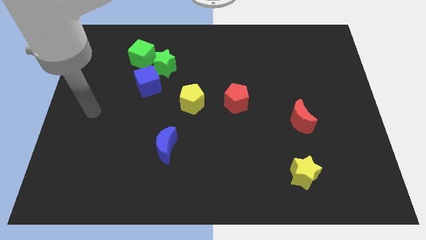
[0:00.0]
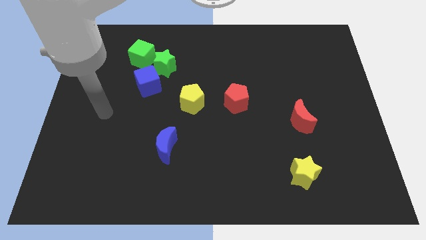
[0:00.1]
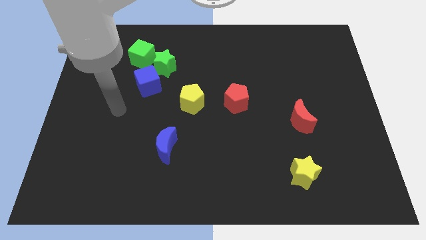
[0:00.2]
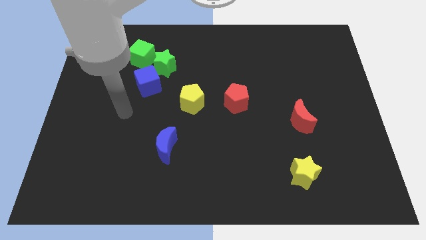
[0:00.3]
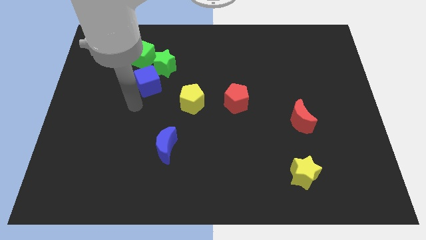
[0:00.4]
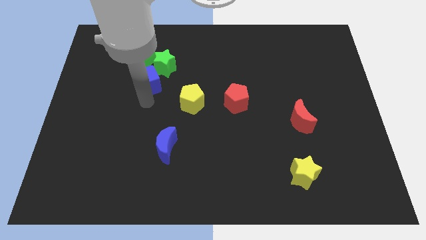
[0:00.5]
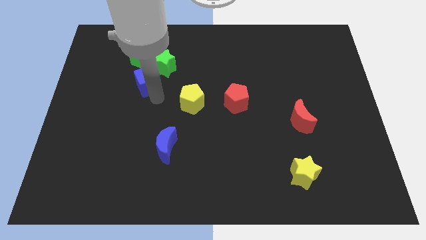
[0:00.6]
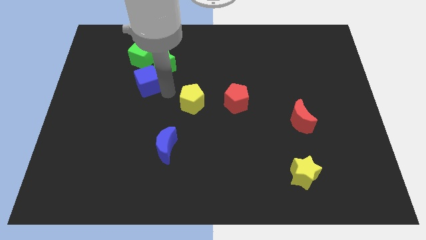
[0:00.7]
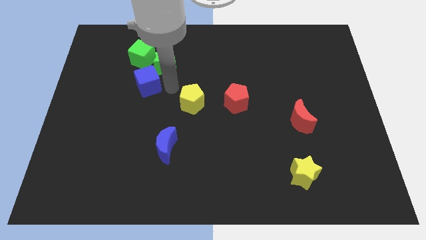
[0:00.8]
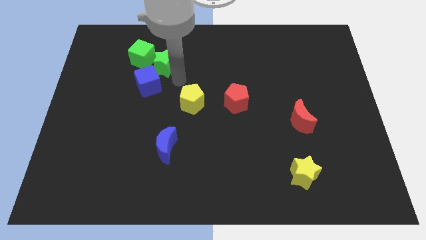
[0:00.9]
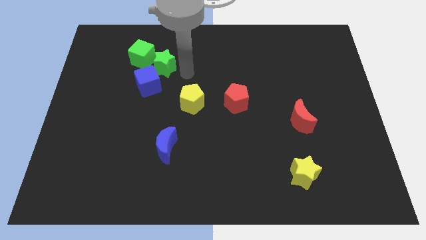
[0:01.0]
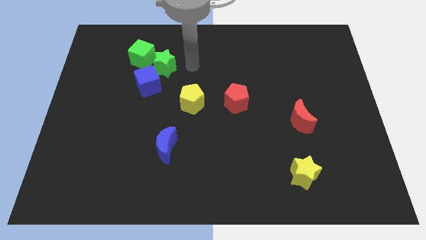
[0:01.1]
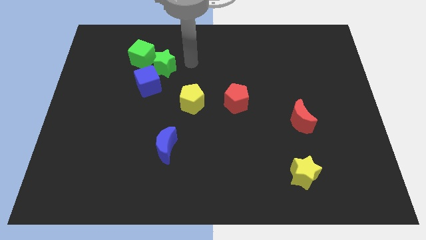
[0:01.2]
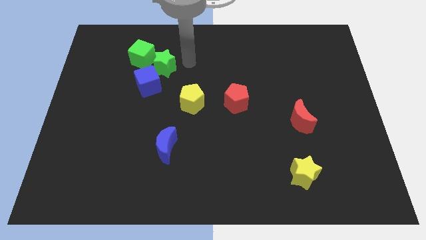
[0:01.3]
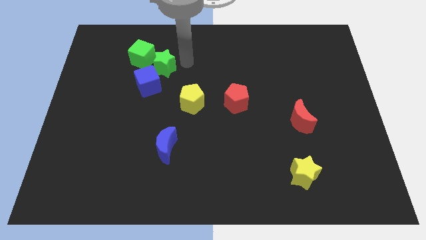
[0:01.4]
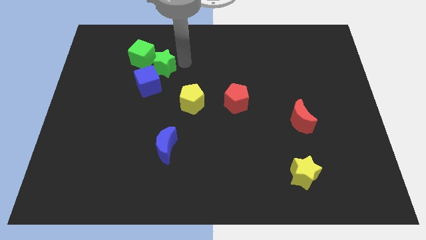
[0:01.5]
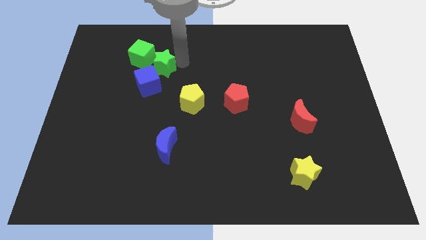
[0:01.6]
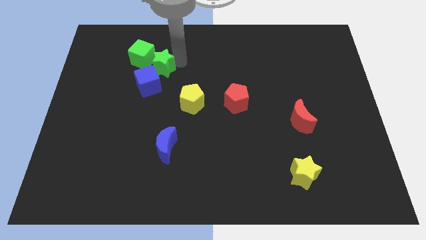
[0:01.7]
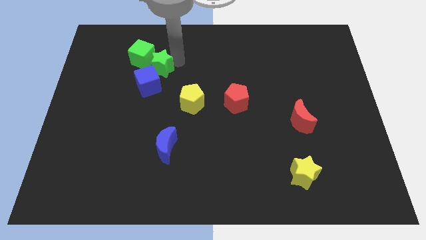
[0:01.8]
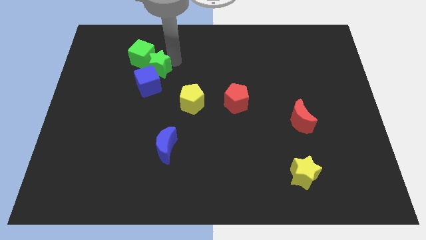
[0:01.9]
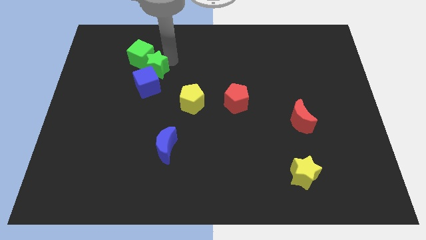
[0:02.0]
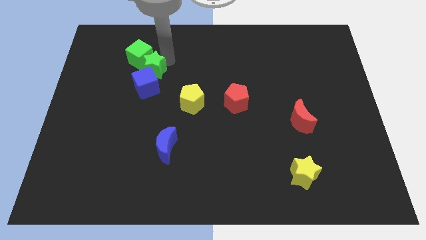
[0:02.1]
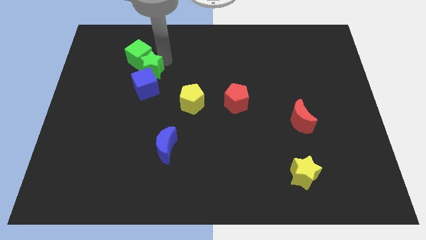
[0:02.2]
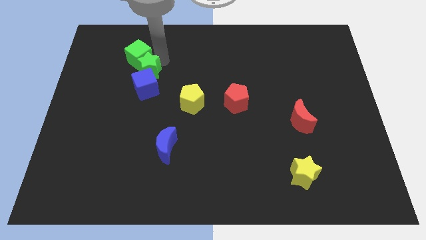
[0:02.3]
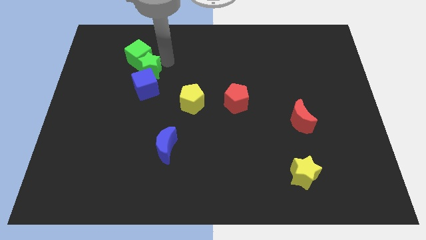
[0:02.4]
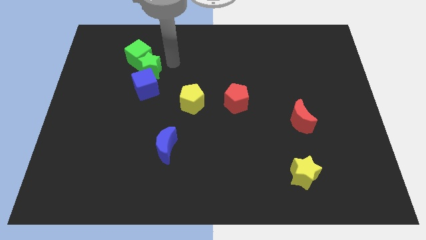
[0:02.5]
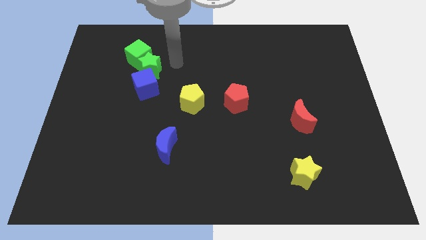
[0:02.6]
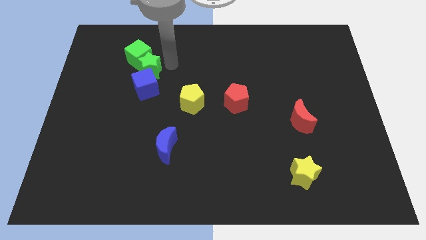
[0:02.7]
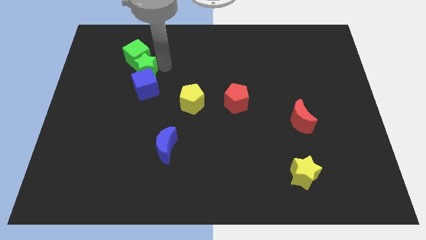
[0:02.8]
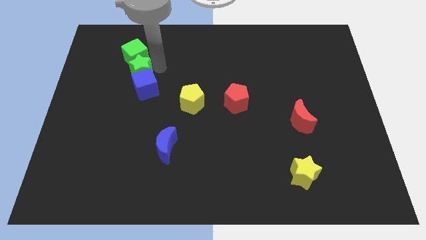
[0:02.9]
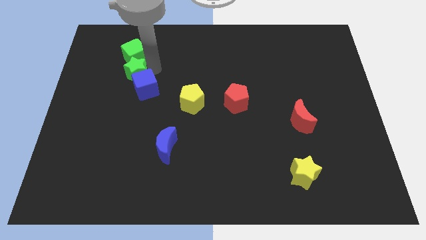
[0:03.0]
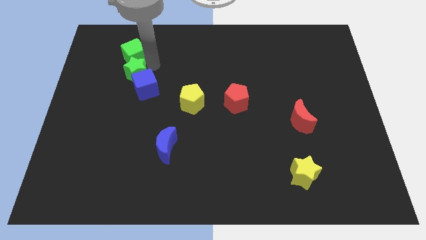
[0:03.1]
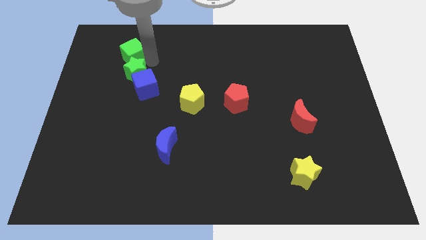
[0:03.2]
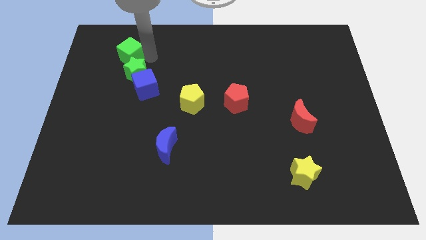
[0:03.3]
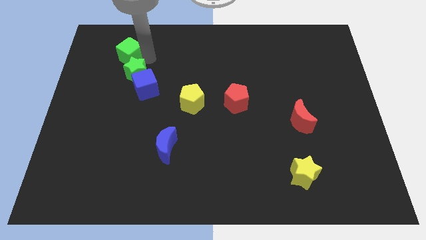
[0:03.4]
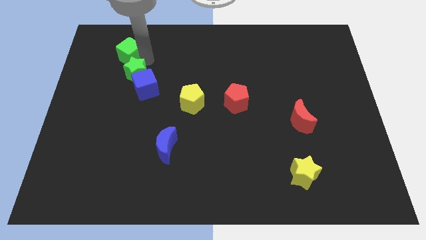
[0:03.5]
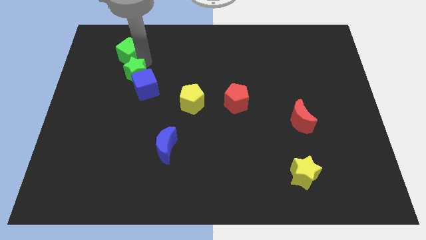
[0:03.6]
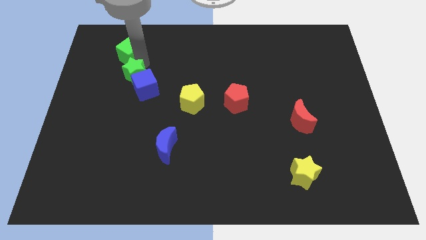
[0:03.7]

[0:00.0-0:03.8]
move the green star a bit downwards and to the left diagonally

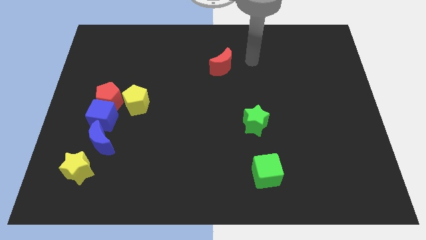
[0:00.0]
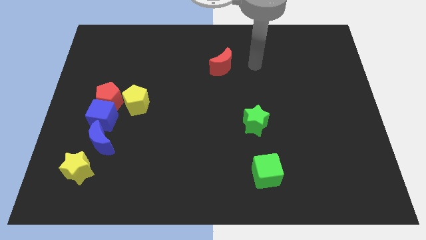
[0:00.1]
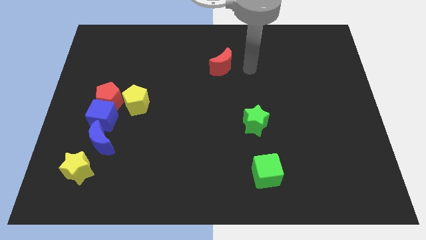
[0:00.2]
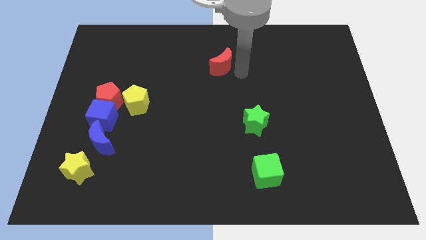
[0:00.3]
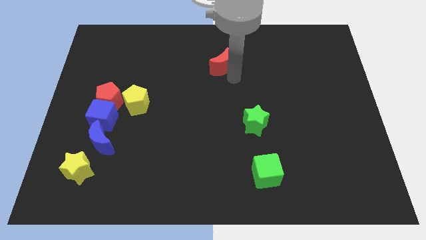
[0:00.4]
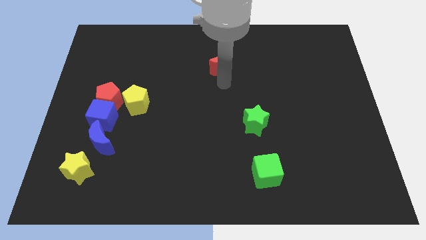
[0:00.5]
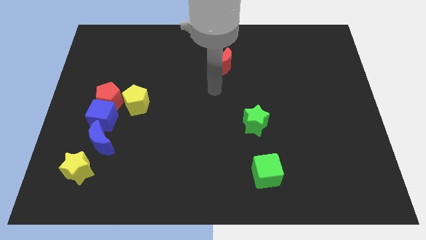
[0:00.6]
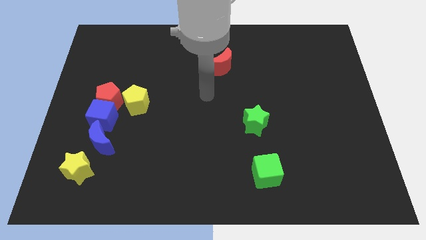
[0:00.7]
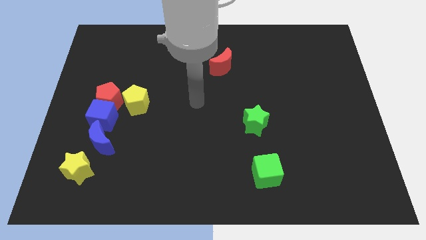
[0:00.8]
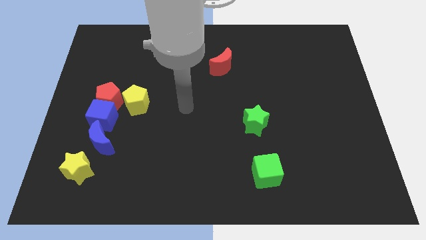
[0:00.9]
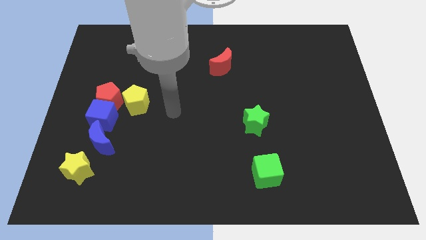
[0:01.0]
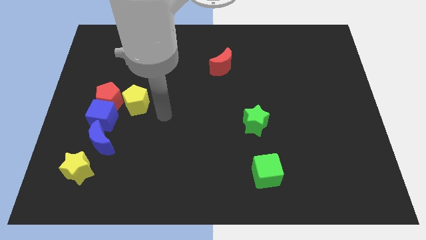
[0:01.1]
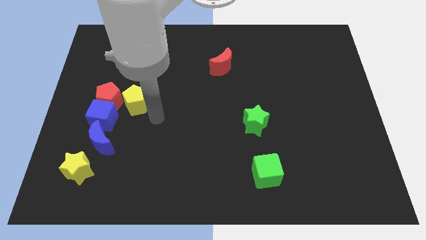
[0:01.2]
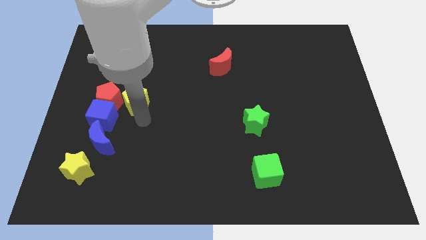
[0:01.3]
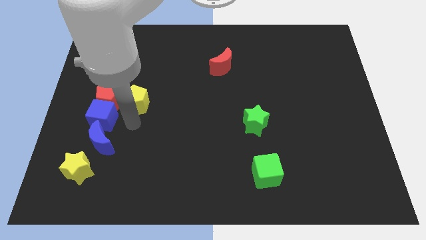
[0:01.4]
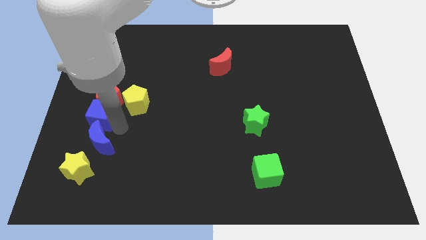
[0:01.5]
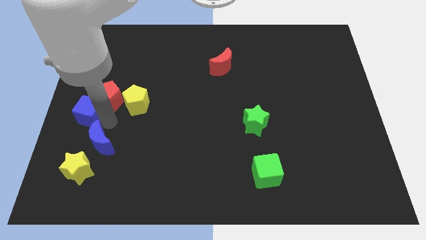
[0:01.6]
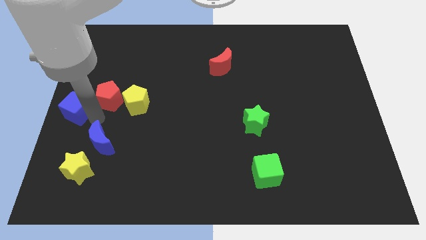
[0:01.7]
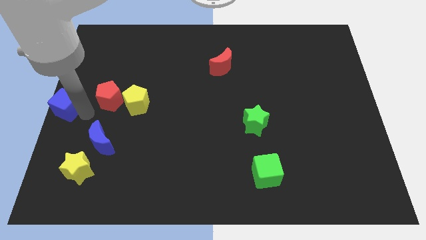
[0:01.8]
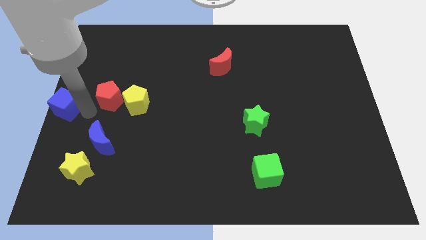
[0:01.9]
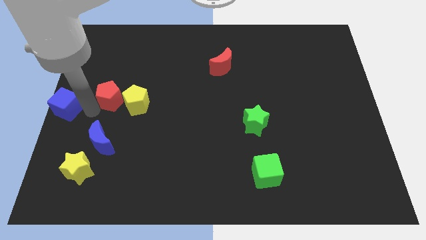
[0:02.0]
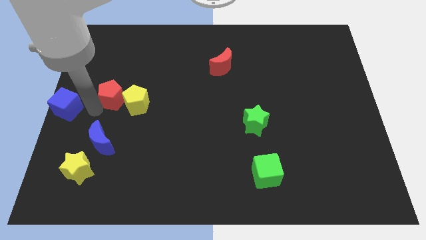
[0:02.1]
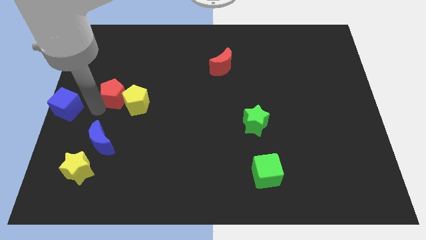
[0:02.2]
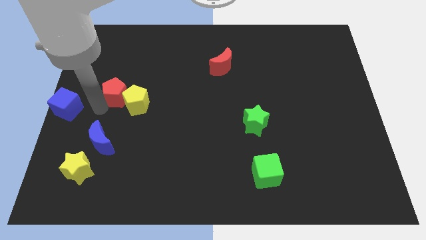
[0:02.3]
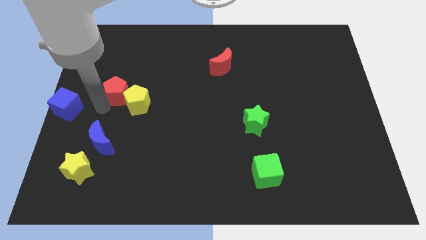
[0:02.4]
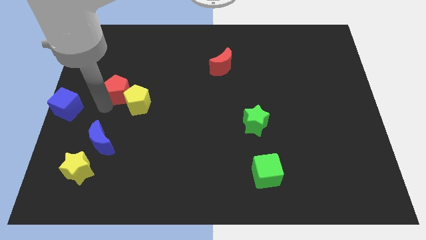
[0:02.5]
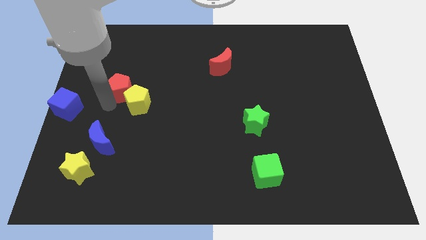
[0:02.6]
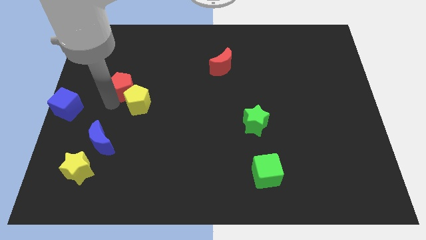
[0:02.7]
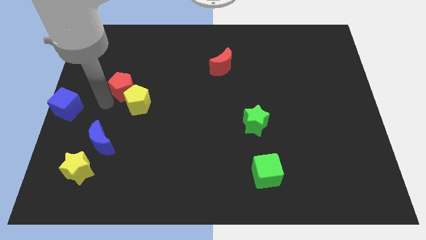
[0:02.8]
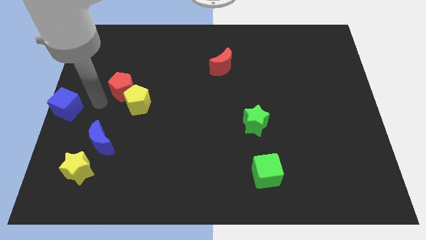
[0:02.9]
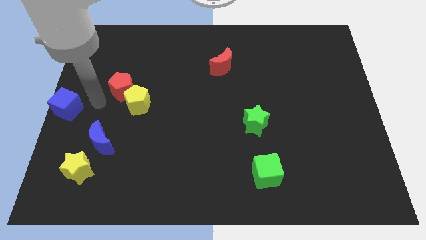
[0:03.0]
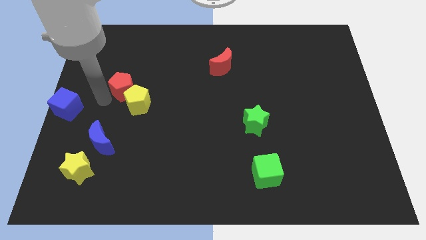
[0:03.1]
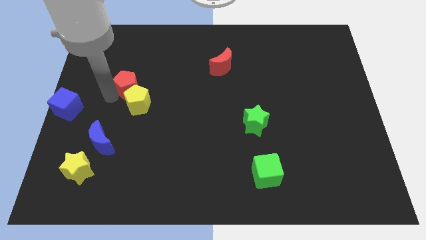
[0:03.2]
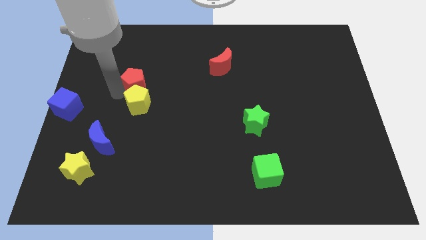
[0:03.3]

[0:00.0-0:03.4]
slightly slide the red pentagon diagonally up and to the right

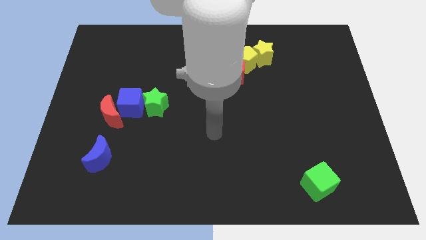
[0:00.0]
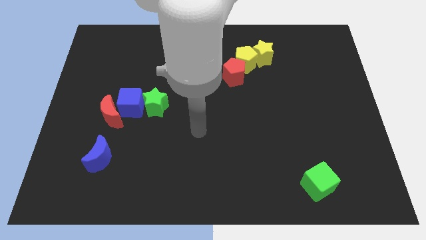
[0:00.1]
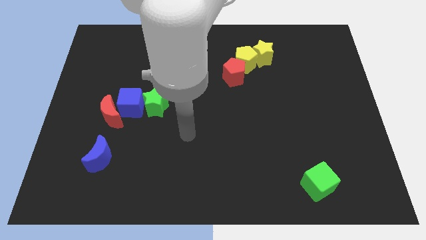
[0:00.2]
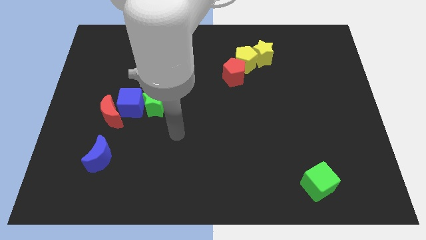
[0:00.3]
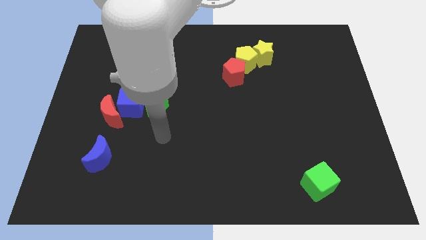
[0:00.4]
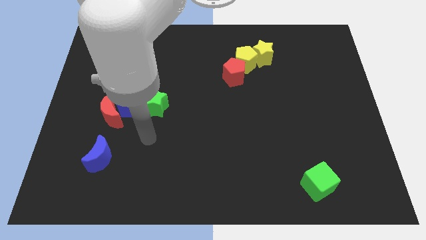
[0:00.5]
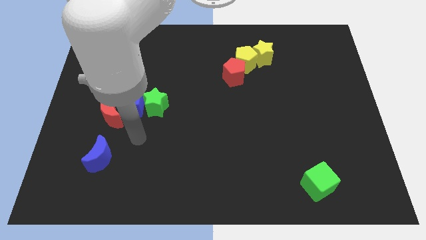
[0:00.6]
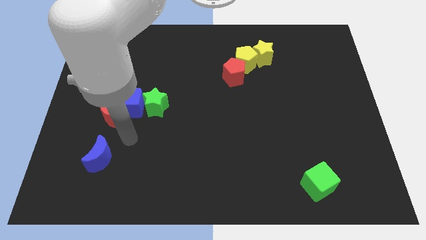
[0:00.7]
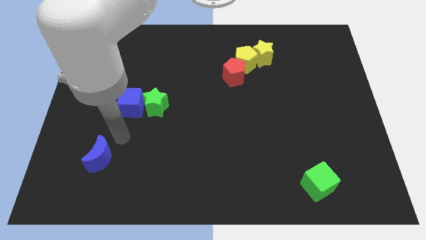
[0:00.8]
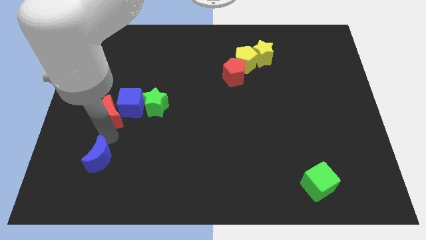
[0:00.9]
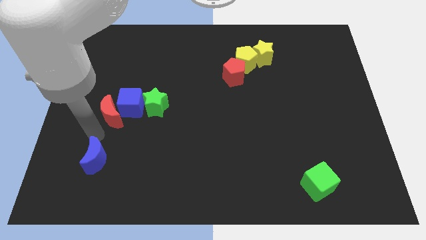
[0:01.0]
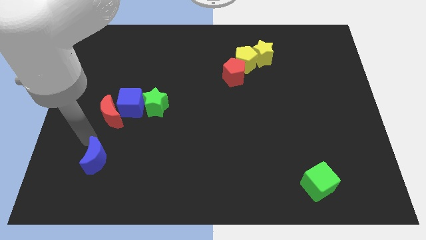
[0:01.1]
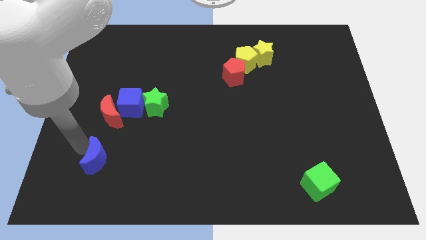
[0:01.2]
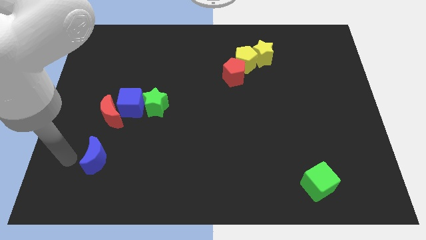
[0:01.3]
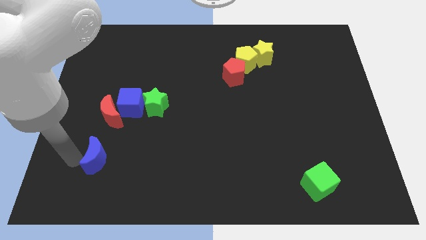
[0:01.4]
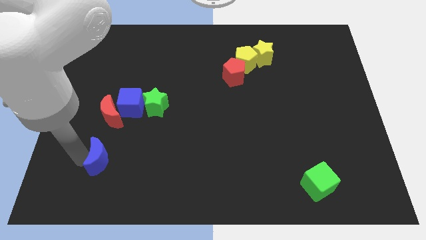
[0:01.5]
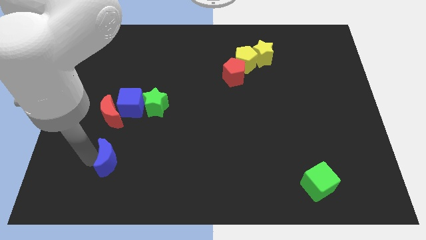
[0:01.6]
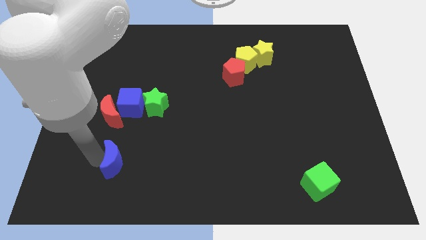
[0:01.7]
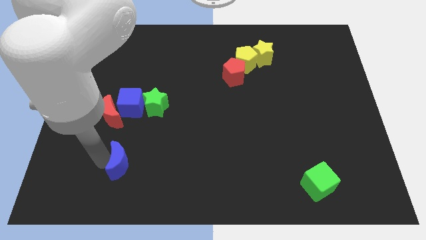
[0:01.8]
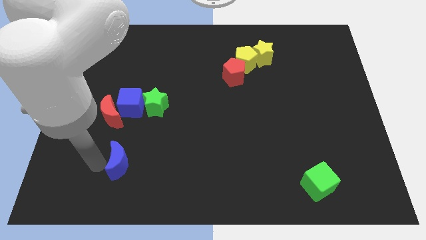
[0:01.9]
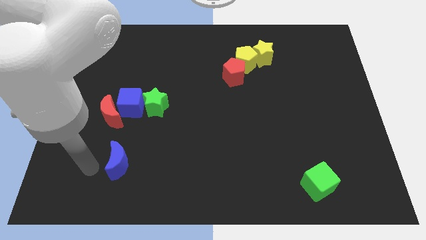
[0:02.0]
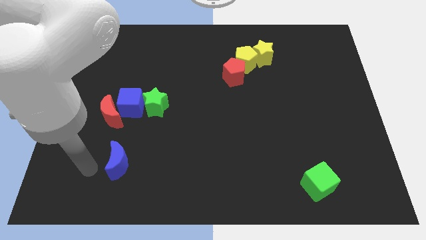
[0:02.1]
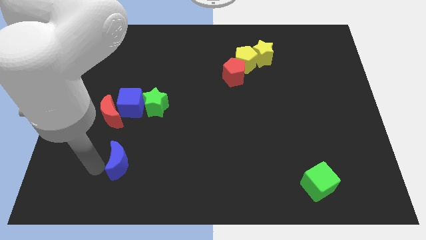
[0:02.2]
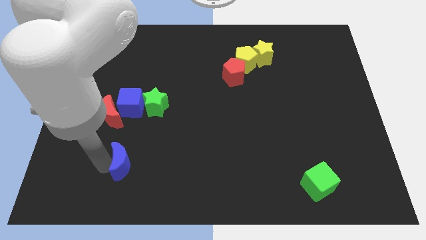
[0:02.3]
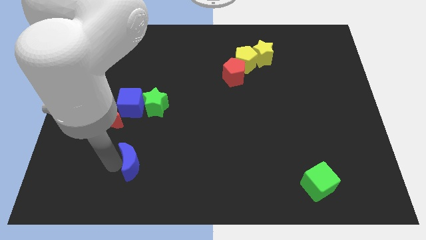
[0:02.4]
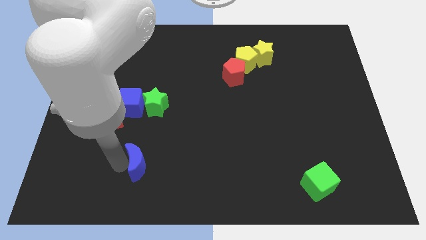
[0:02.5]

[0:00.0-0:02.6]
slightly push the blue moon to the right
